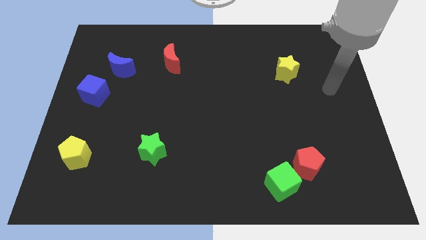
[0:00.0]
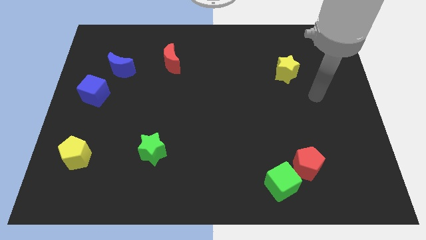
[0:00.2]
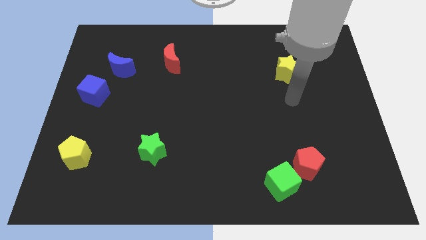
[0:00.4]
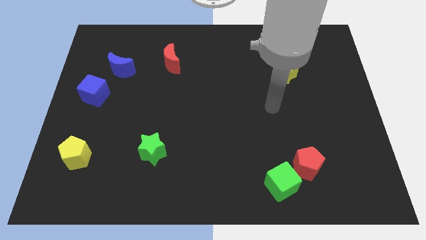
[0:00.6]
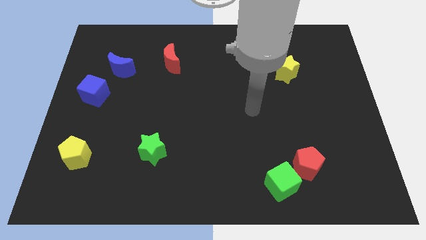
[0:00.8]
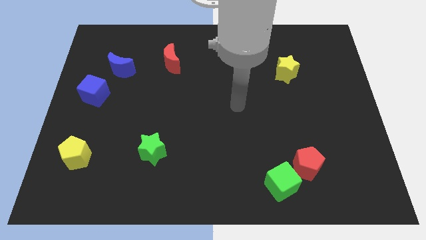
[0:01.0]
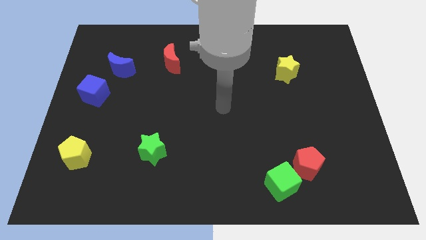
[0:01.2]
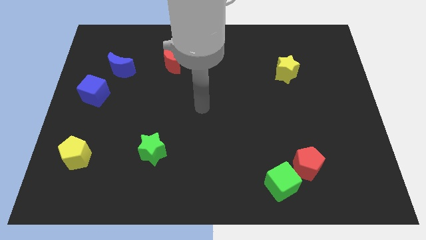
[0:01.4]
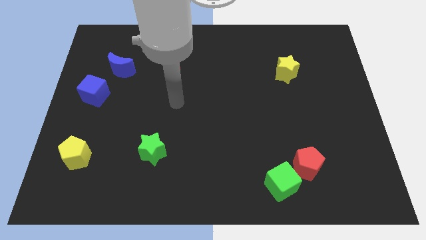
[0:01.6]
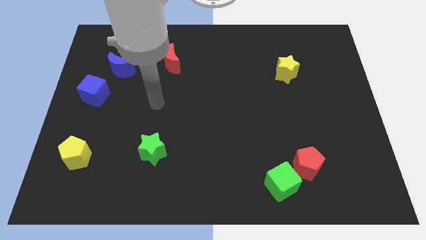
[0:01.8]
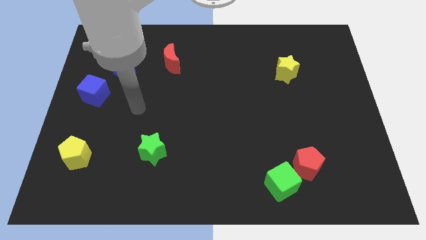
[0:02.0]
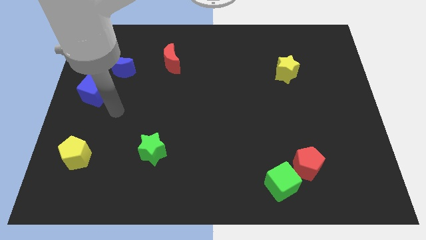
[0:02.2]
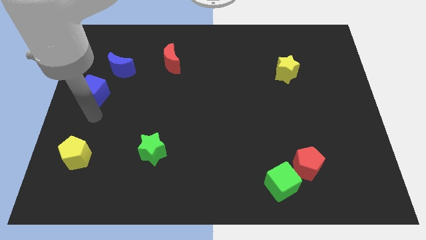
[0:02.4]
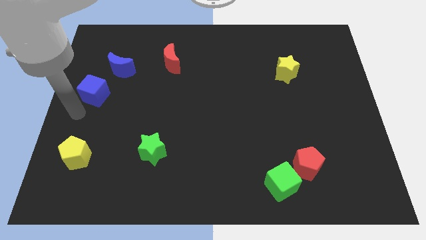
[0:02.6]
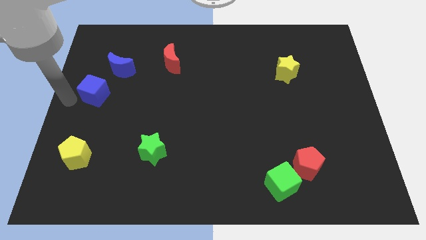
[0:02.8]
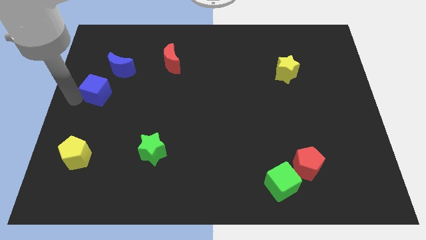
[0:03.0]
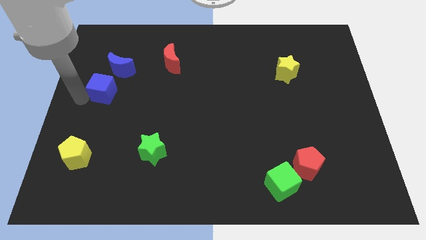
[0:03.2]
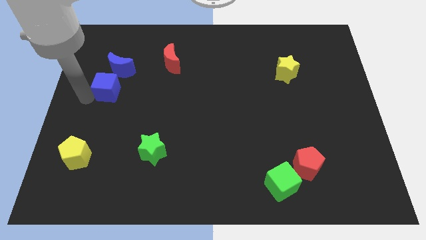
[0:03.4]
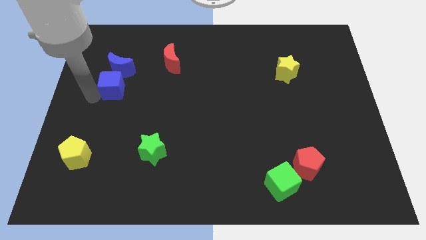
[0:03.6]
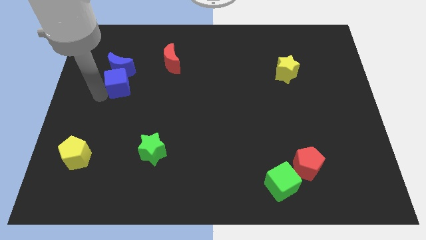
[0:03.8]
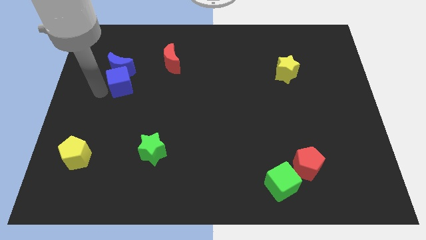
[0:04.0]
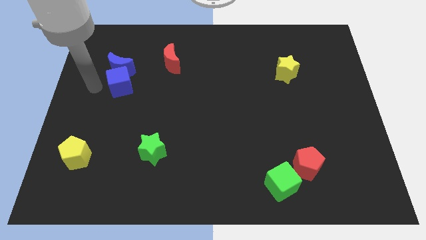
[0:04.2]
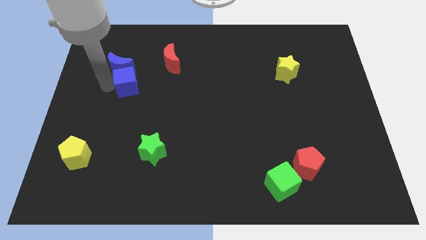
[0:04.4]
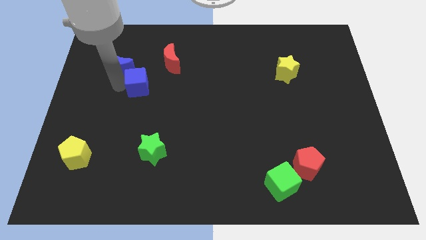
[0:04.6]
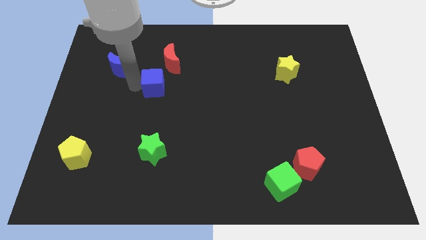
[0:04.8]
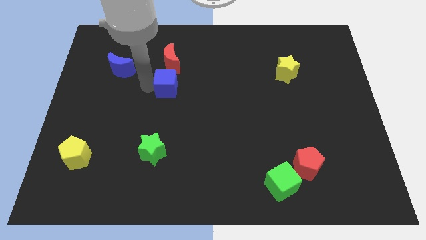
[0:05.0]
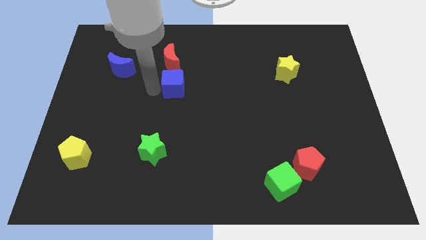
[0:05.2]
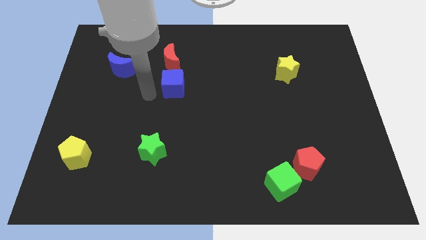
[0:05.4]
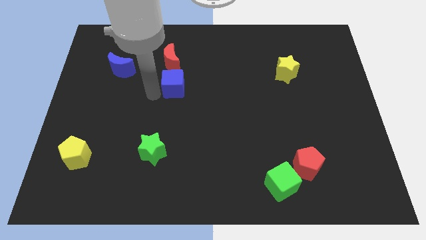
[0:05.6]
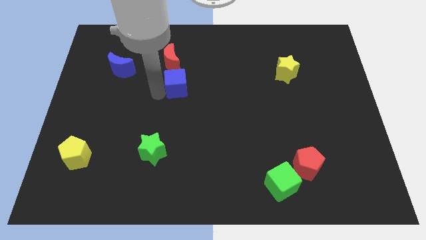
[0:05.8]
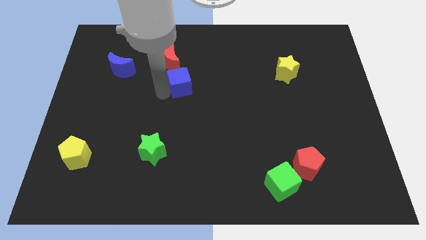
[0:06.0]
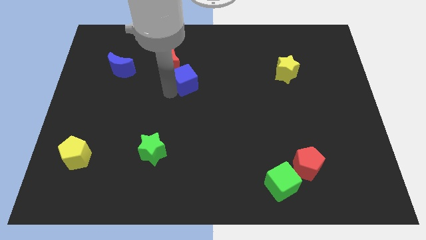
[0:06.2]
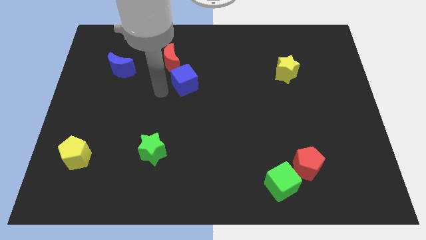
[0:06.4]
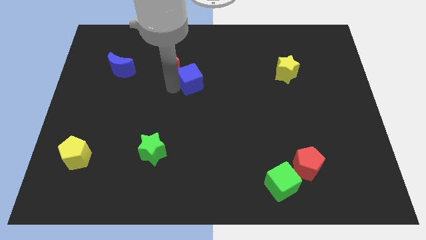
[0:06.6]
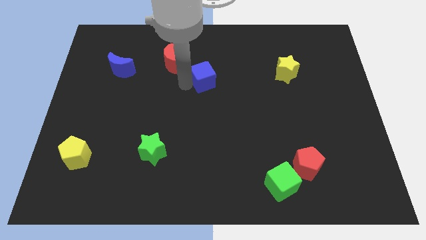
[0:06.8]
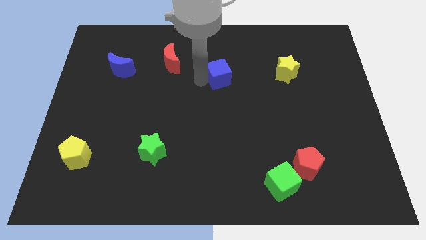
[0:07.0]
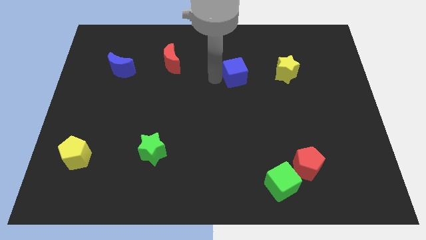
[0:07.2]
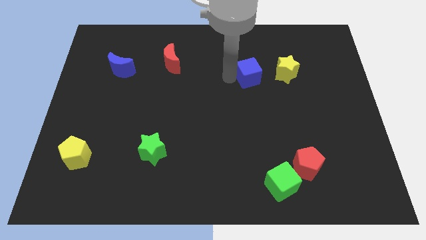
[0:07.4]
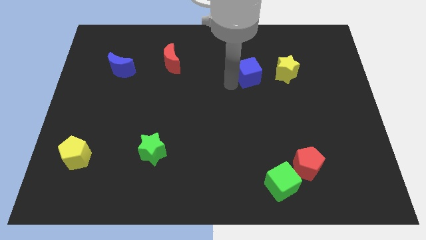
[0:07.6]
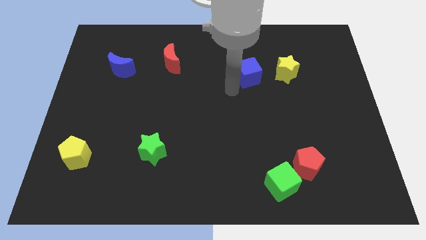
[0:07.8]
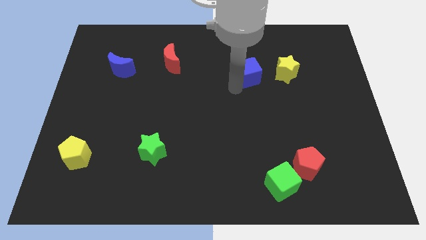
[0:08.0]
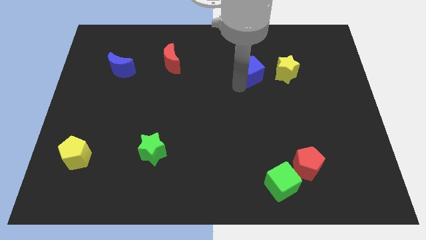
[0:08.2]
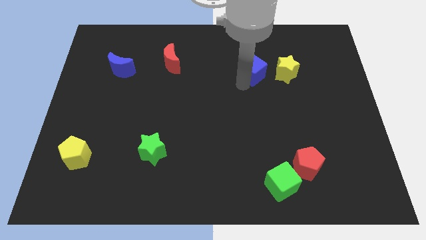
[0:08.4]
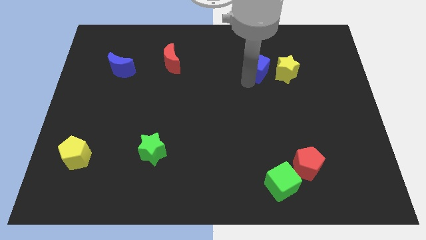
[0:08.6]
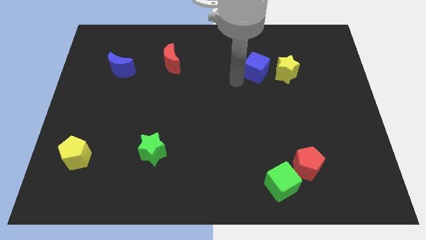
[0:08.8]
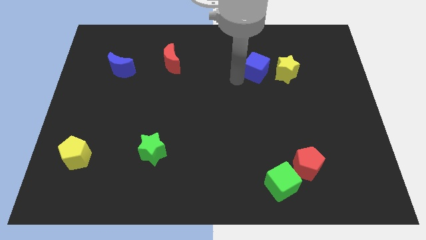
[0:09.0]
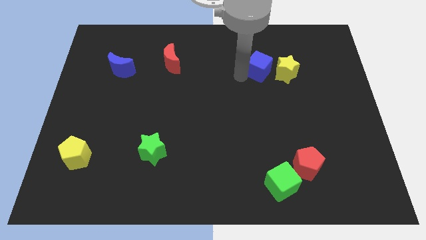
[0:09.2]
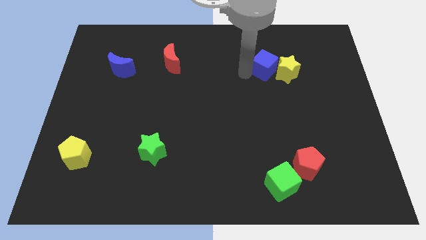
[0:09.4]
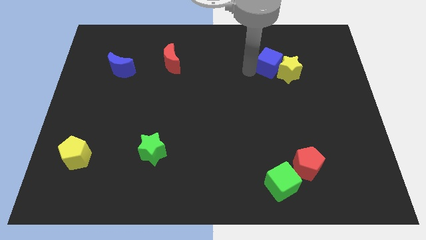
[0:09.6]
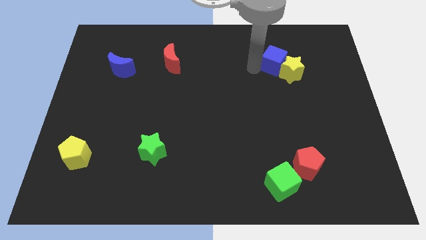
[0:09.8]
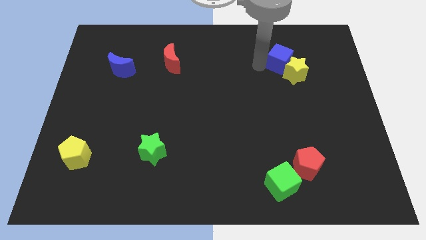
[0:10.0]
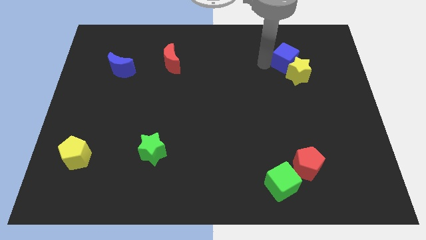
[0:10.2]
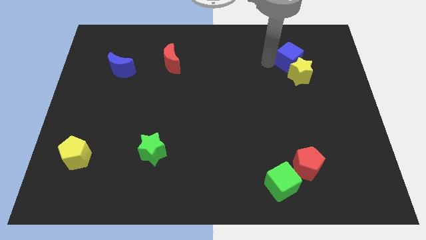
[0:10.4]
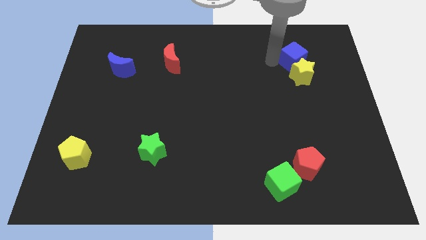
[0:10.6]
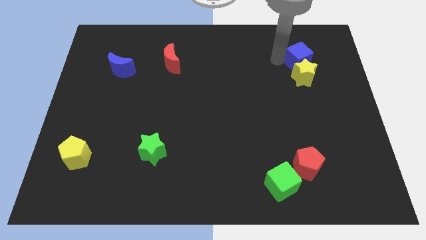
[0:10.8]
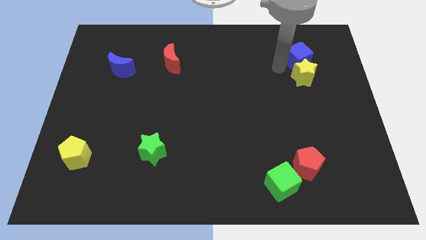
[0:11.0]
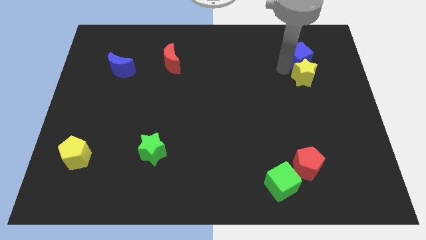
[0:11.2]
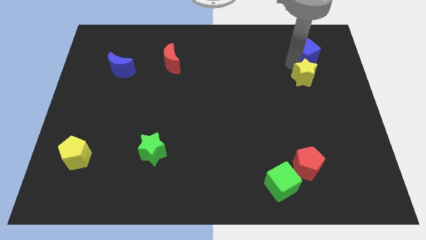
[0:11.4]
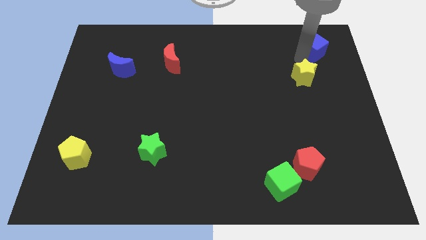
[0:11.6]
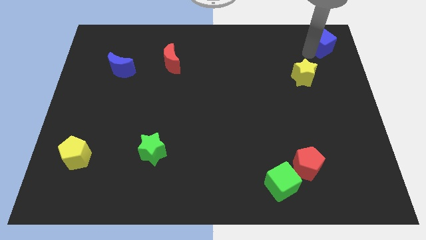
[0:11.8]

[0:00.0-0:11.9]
push the blue cube to the top right of the board

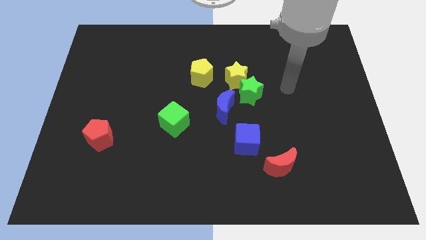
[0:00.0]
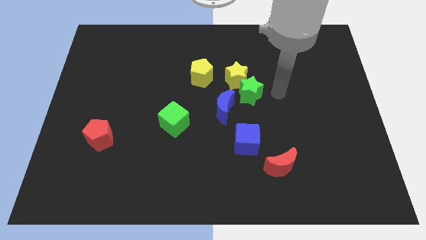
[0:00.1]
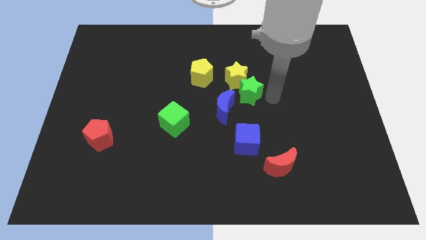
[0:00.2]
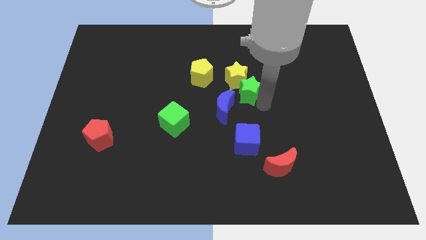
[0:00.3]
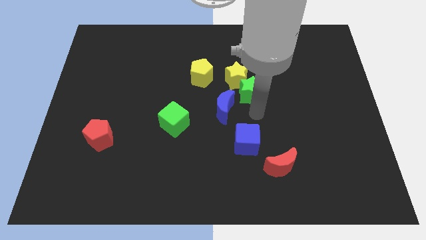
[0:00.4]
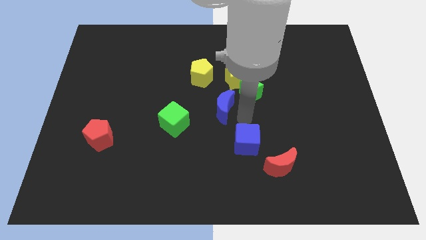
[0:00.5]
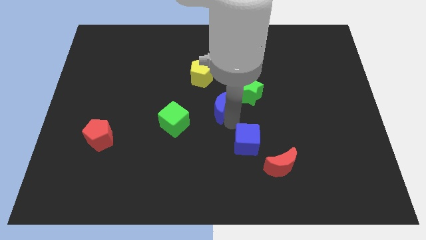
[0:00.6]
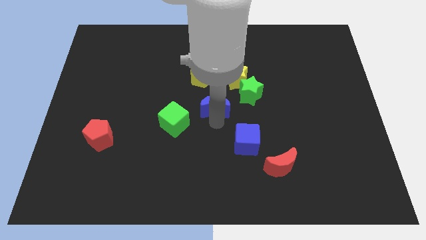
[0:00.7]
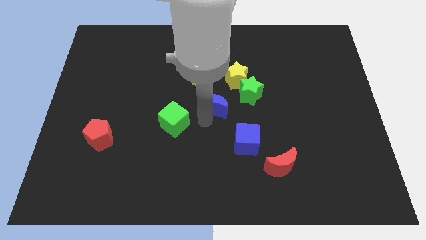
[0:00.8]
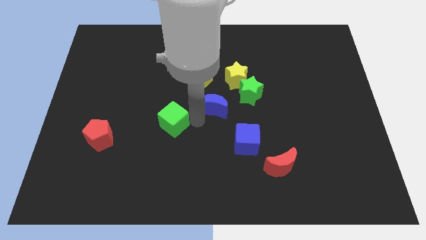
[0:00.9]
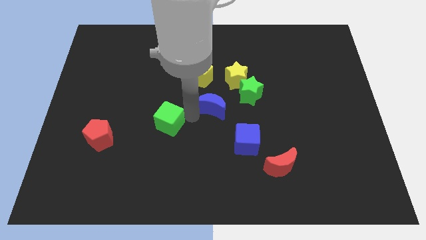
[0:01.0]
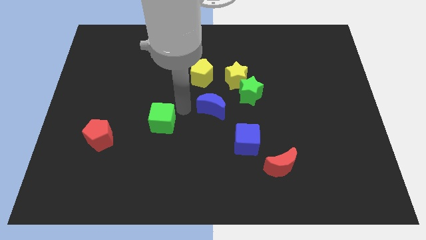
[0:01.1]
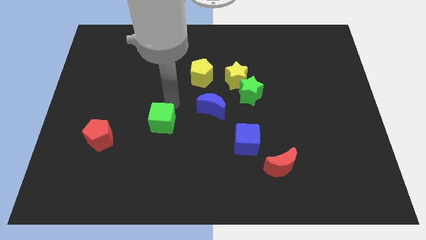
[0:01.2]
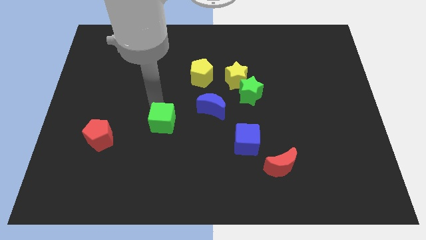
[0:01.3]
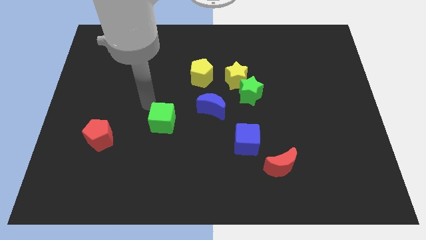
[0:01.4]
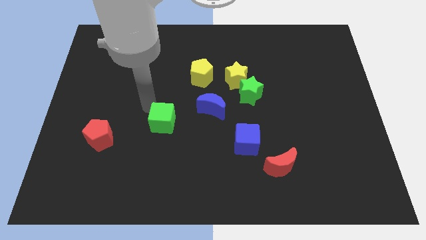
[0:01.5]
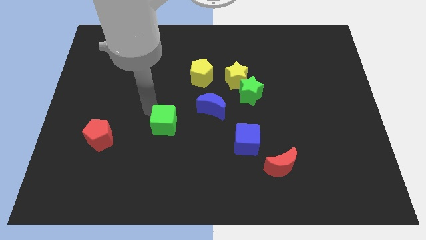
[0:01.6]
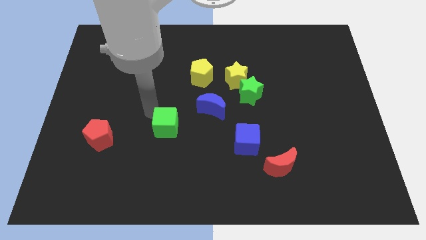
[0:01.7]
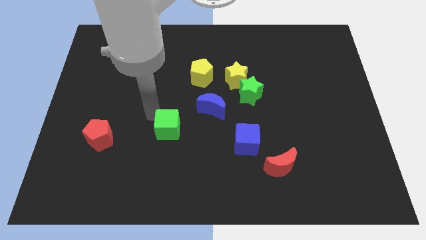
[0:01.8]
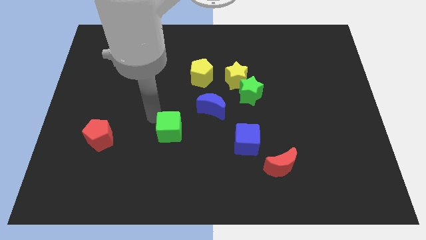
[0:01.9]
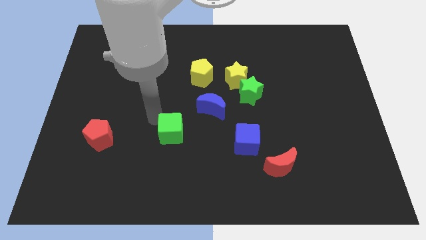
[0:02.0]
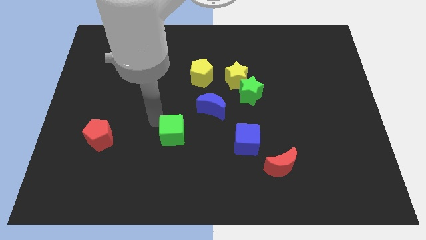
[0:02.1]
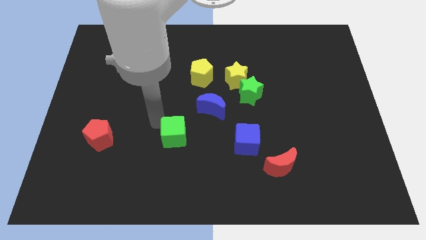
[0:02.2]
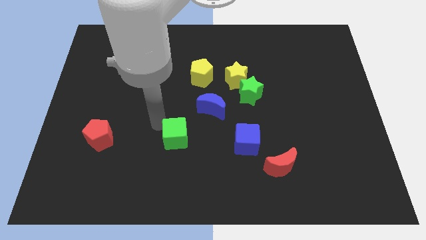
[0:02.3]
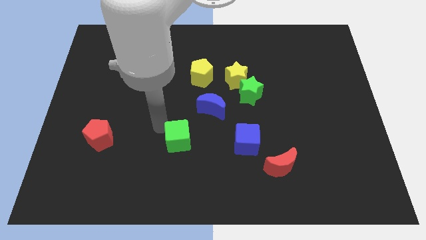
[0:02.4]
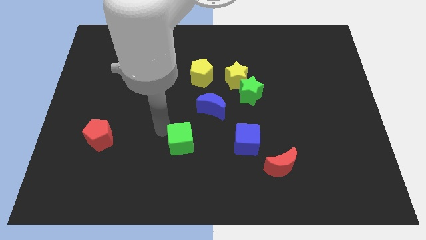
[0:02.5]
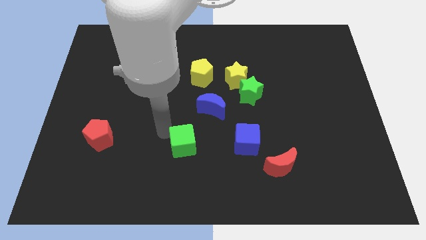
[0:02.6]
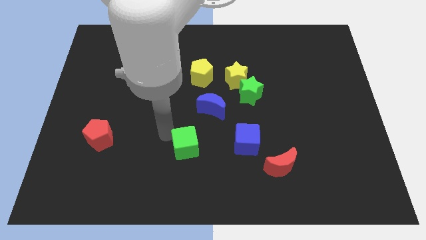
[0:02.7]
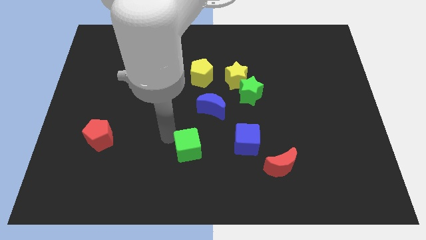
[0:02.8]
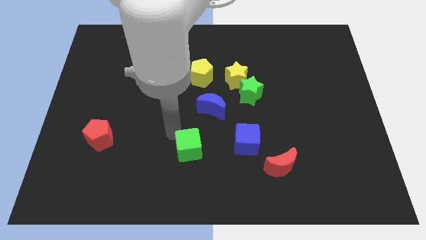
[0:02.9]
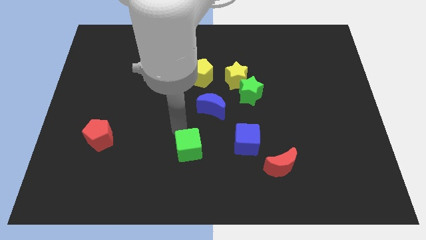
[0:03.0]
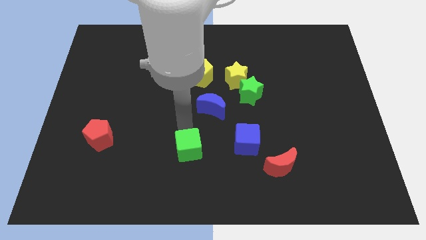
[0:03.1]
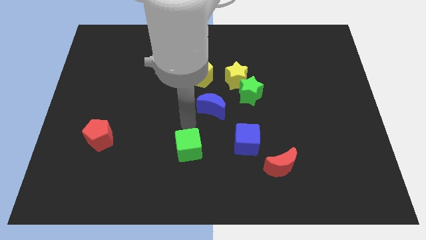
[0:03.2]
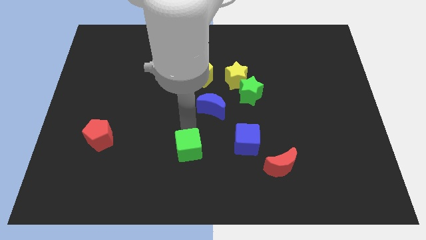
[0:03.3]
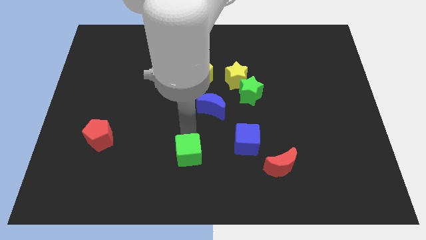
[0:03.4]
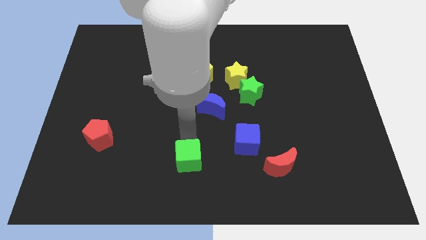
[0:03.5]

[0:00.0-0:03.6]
move the green cube to the bottom side
